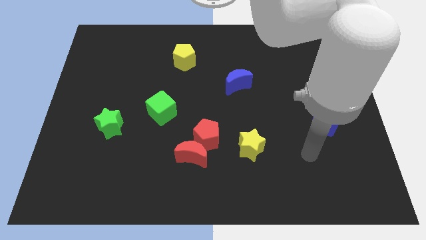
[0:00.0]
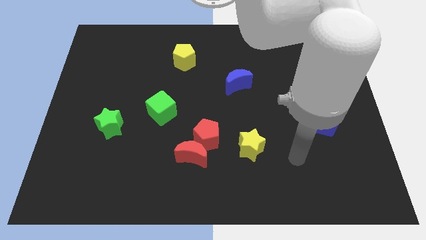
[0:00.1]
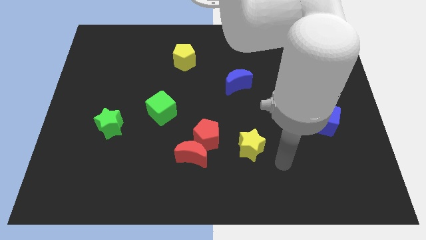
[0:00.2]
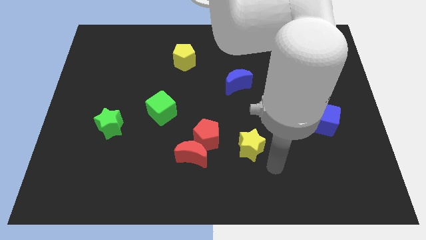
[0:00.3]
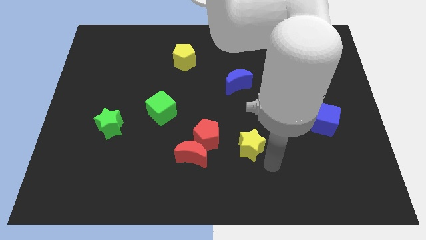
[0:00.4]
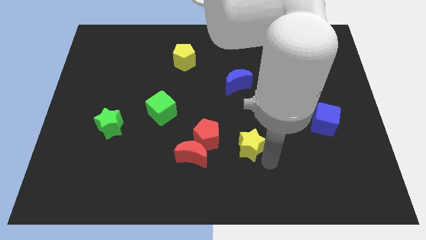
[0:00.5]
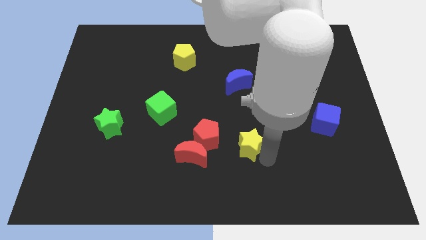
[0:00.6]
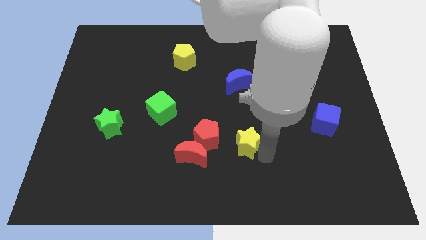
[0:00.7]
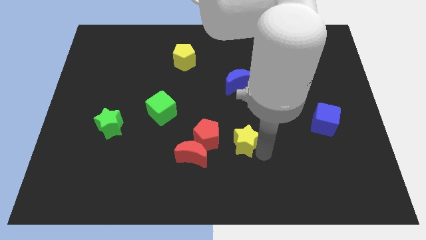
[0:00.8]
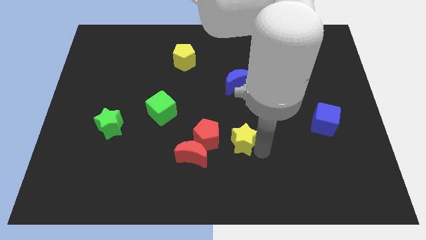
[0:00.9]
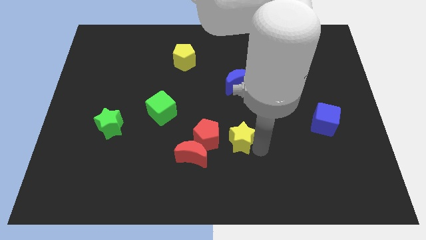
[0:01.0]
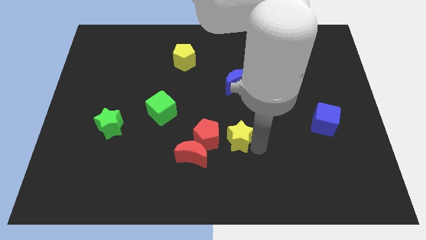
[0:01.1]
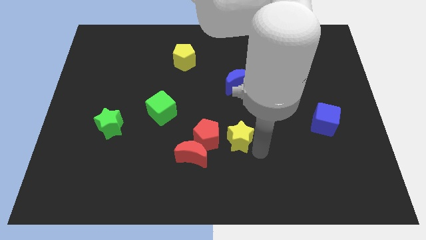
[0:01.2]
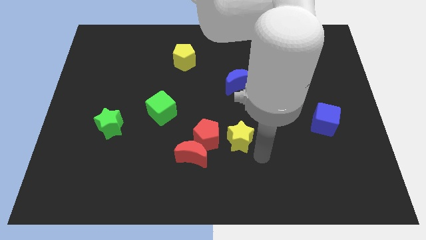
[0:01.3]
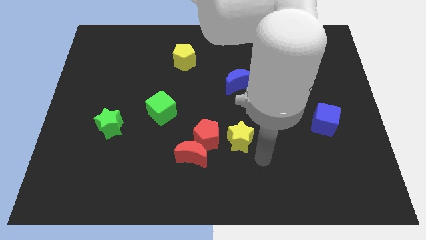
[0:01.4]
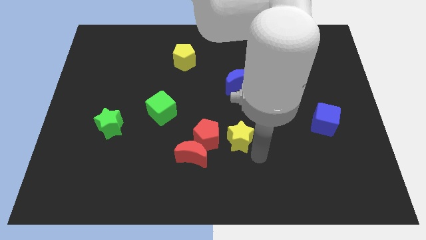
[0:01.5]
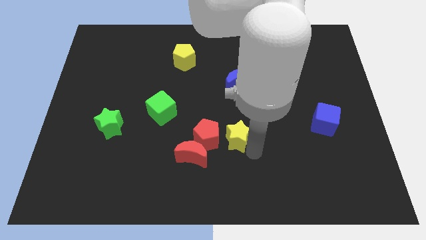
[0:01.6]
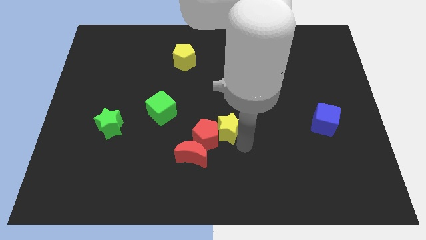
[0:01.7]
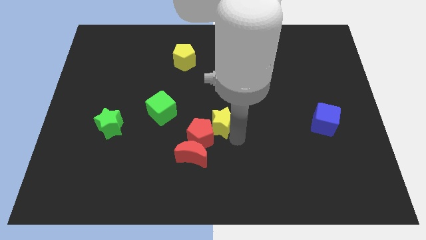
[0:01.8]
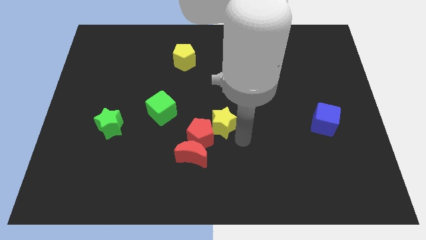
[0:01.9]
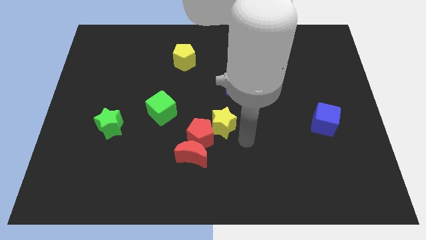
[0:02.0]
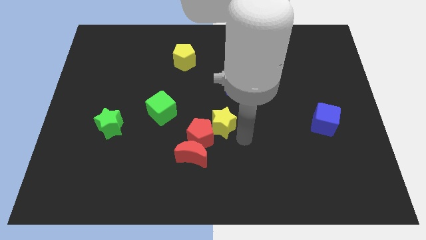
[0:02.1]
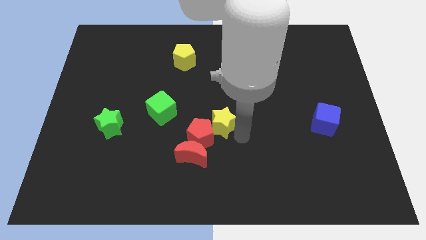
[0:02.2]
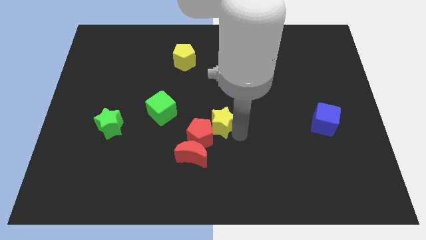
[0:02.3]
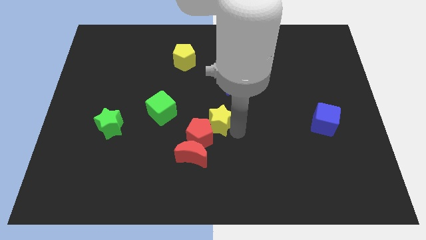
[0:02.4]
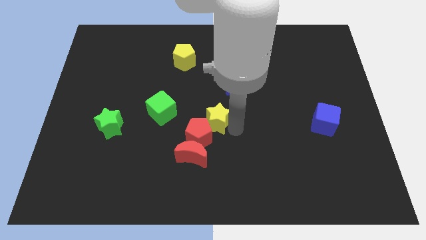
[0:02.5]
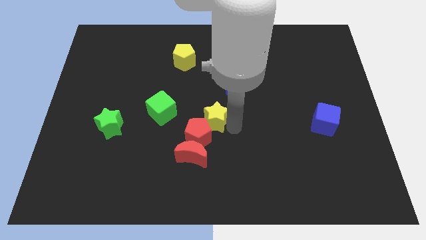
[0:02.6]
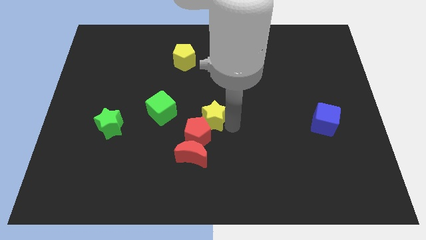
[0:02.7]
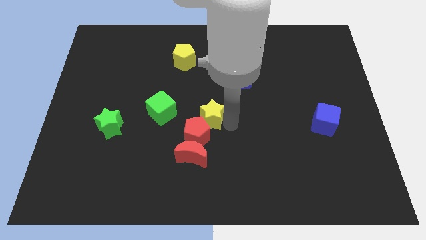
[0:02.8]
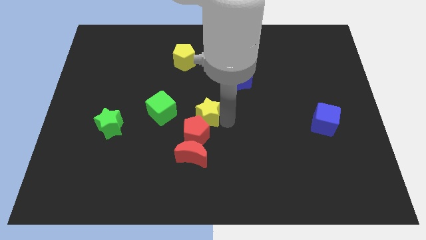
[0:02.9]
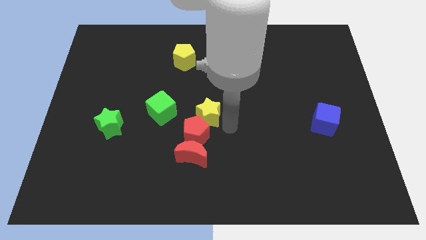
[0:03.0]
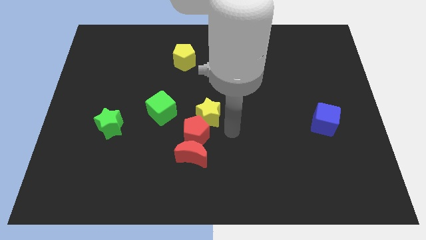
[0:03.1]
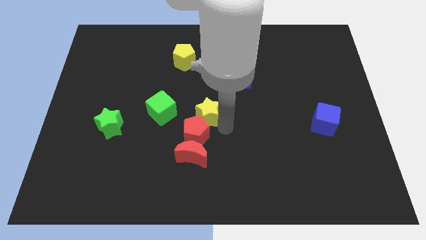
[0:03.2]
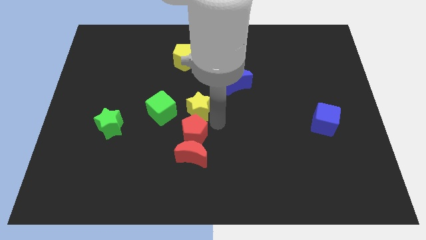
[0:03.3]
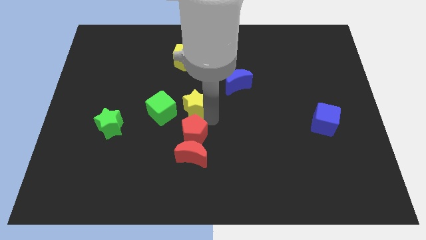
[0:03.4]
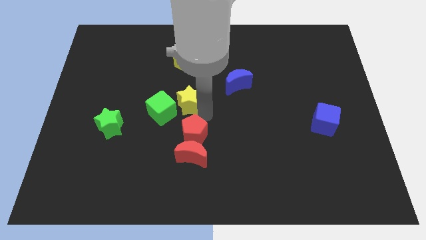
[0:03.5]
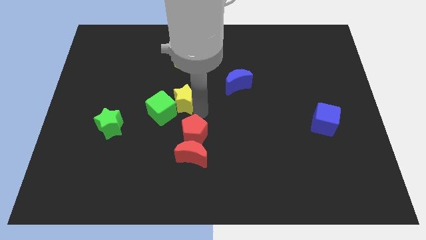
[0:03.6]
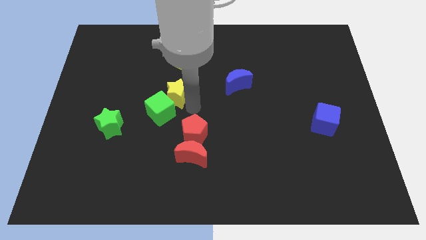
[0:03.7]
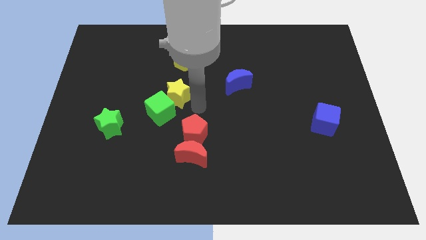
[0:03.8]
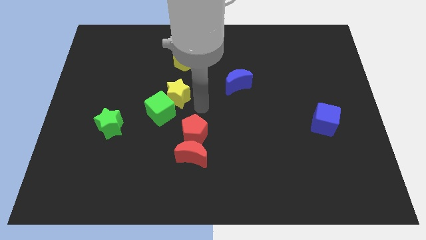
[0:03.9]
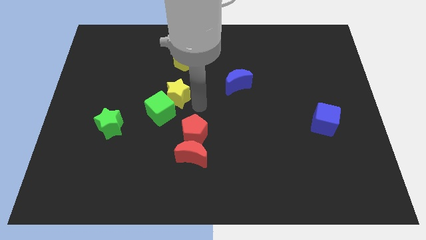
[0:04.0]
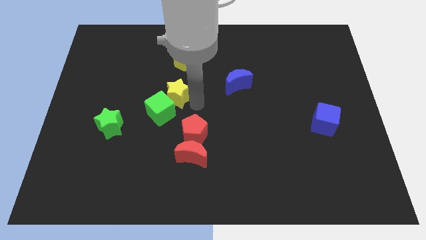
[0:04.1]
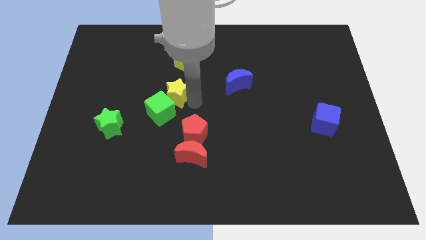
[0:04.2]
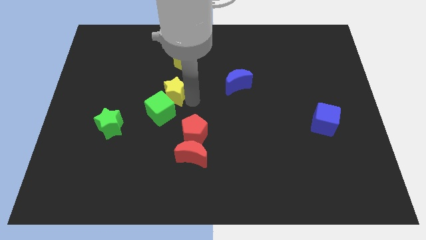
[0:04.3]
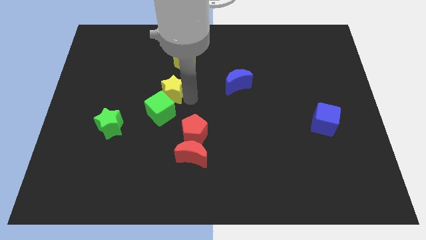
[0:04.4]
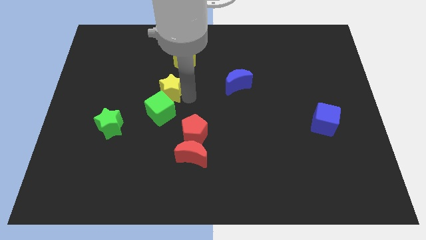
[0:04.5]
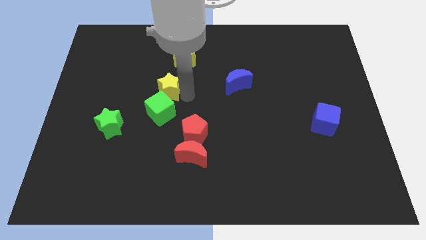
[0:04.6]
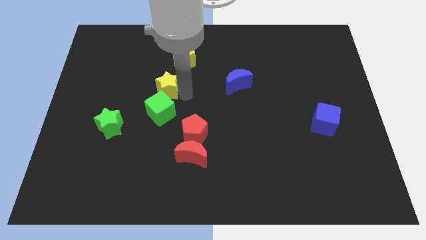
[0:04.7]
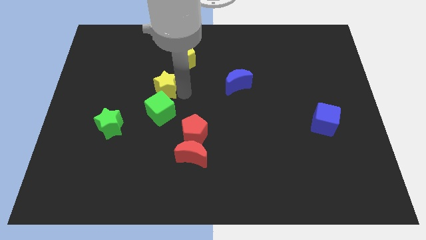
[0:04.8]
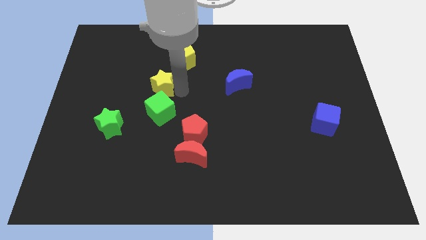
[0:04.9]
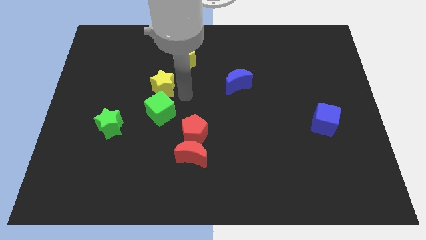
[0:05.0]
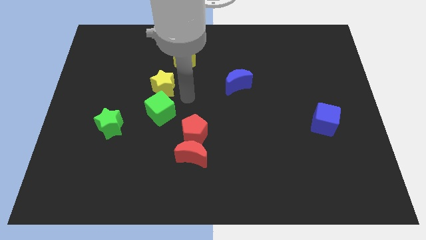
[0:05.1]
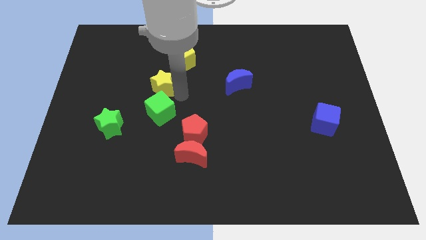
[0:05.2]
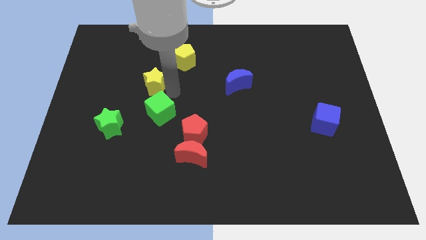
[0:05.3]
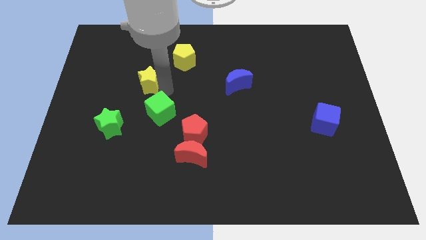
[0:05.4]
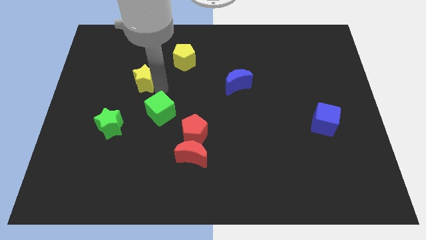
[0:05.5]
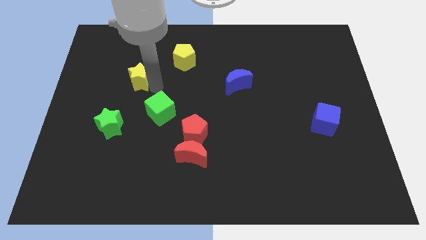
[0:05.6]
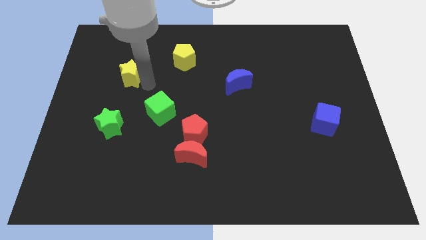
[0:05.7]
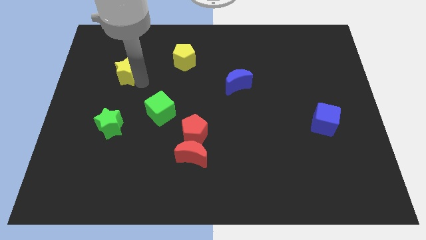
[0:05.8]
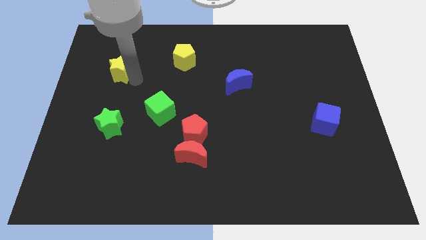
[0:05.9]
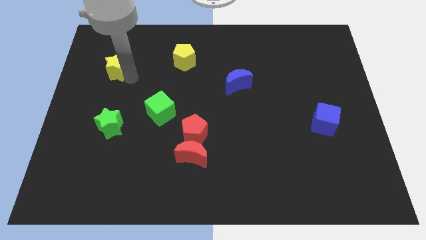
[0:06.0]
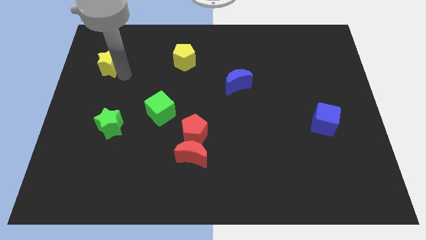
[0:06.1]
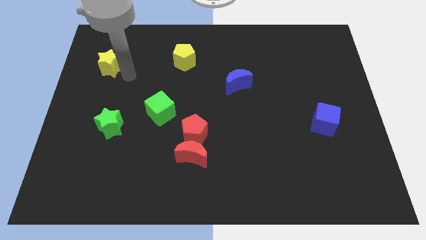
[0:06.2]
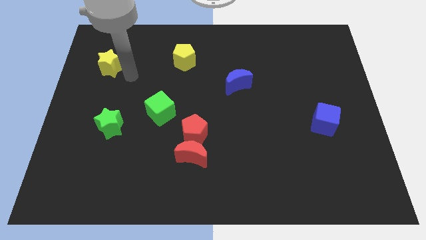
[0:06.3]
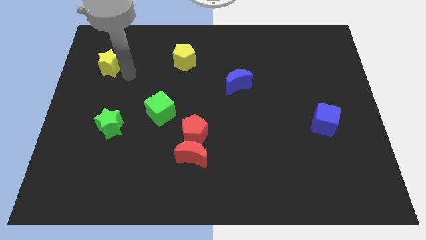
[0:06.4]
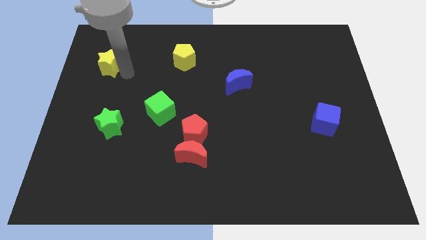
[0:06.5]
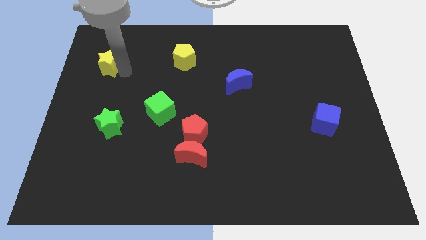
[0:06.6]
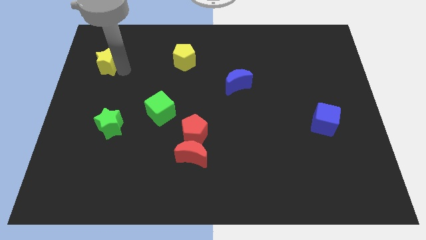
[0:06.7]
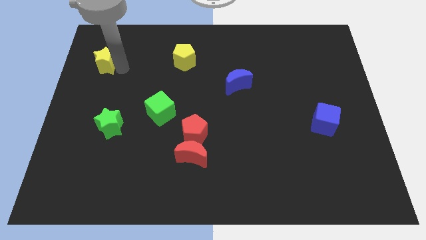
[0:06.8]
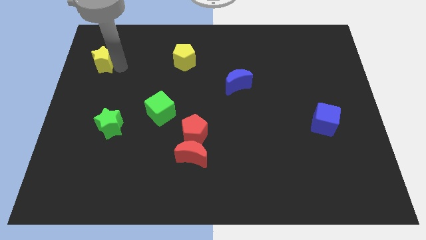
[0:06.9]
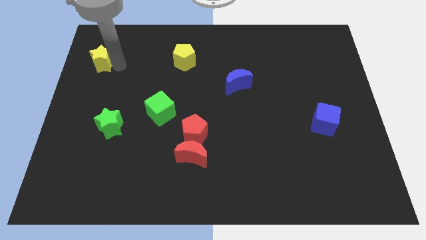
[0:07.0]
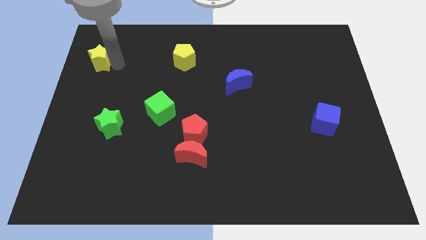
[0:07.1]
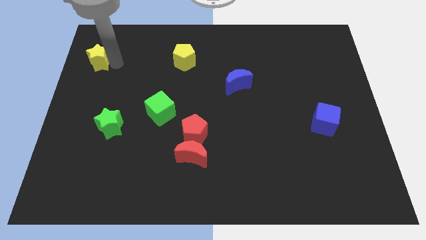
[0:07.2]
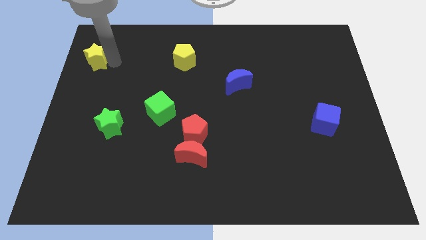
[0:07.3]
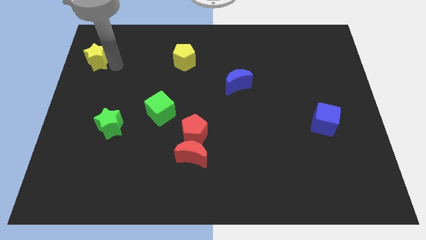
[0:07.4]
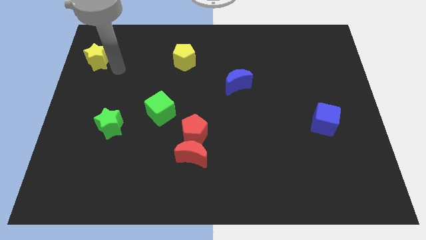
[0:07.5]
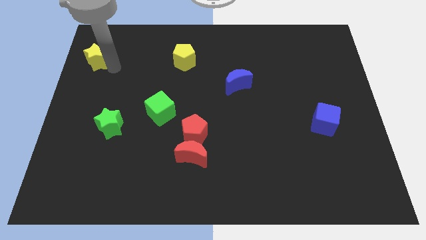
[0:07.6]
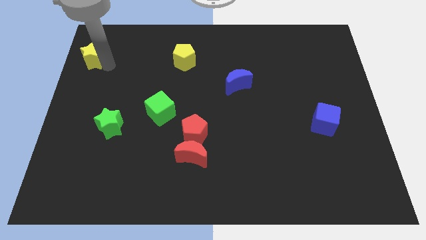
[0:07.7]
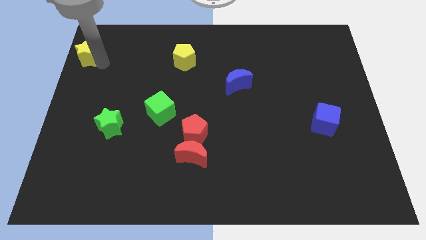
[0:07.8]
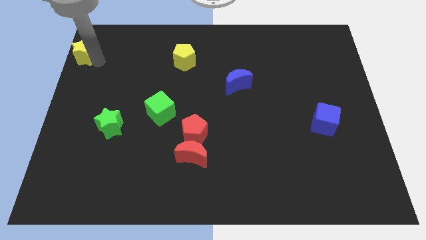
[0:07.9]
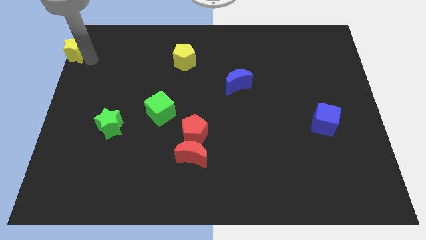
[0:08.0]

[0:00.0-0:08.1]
slide the yellow star to the top left of the board
